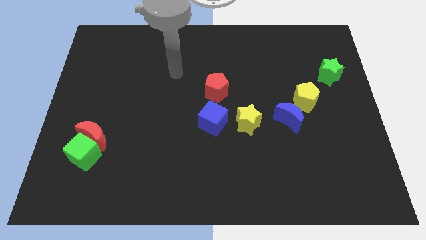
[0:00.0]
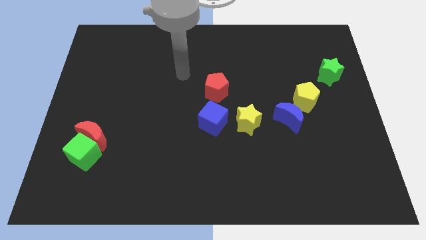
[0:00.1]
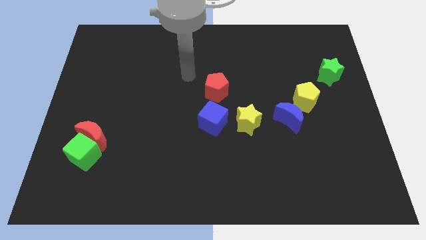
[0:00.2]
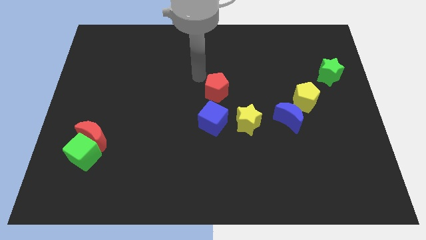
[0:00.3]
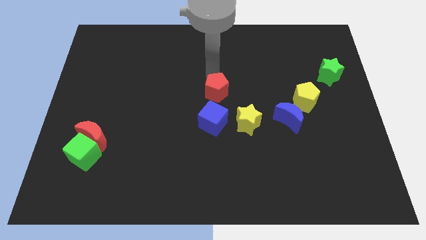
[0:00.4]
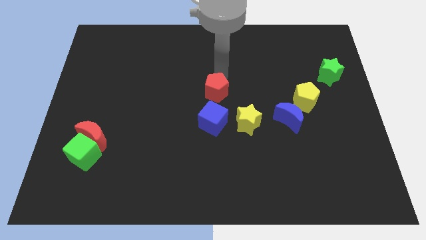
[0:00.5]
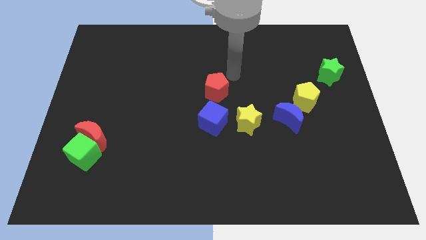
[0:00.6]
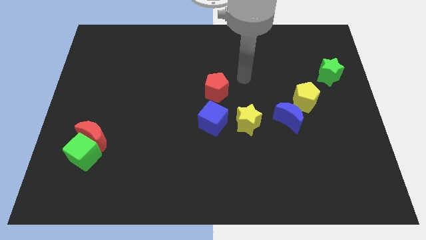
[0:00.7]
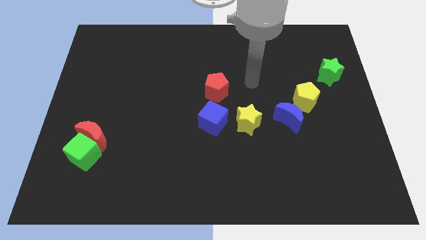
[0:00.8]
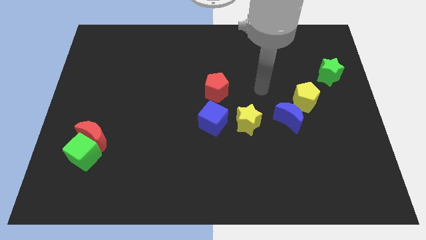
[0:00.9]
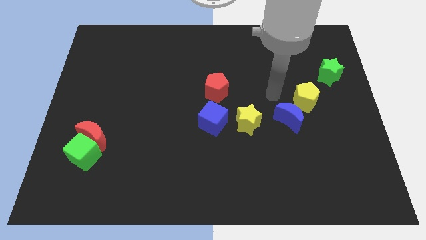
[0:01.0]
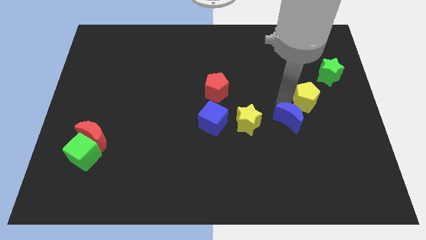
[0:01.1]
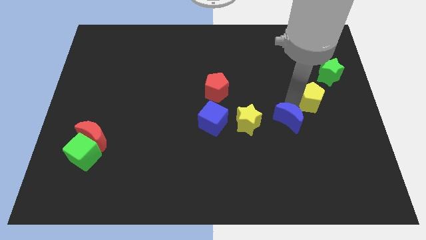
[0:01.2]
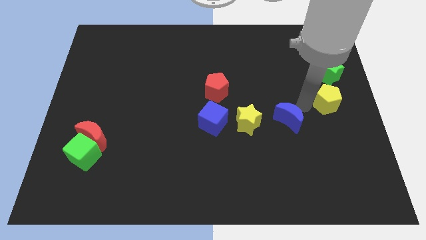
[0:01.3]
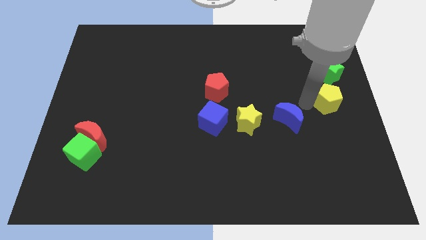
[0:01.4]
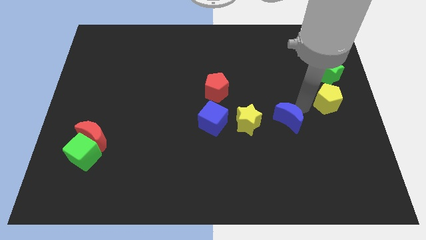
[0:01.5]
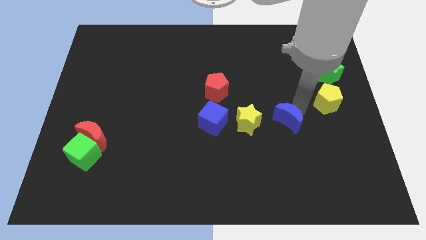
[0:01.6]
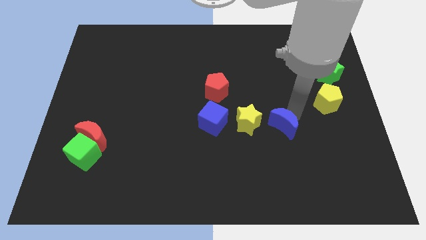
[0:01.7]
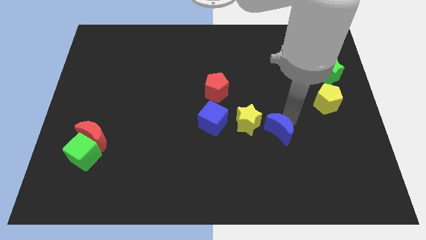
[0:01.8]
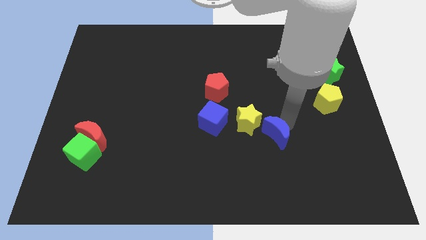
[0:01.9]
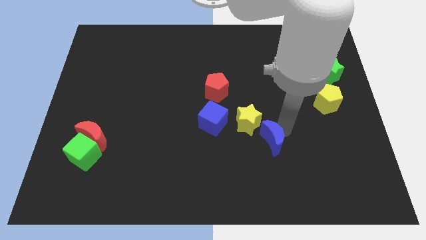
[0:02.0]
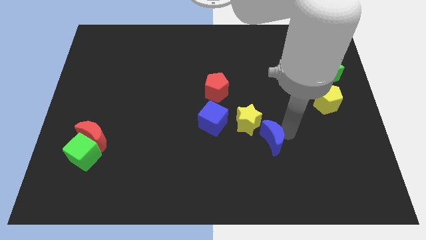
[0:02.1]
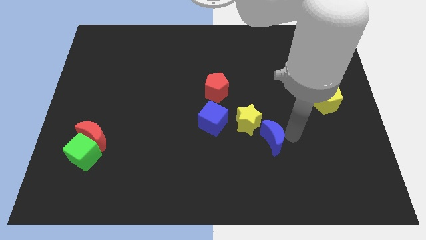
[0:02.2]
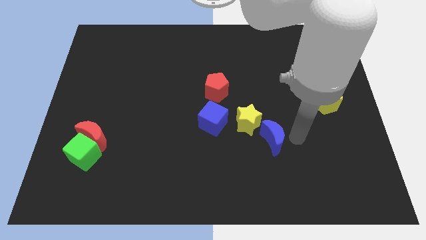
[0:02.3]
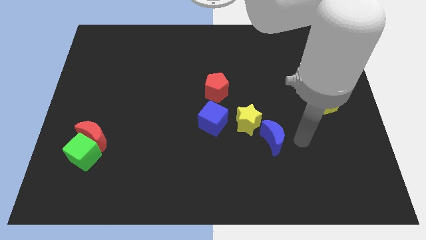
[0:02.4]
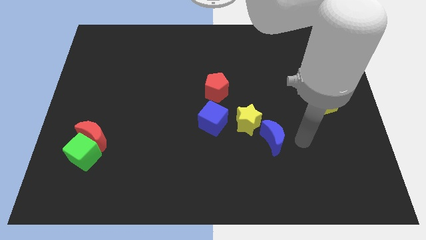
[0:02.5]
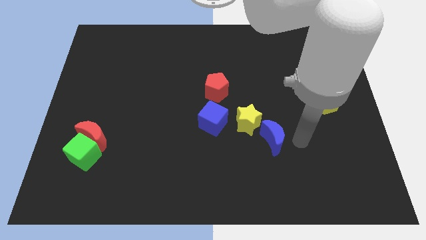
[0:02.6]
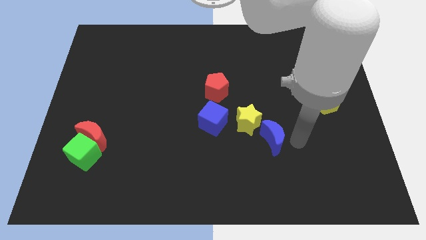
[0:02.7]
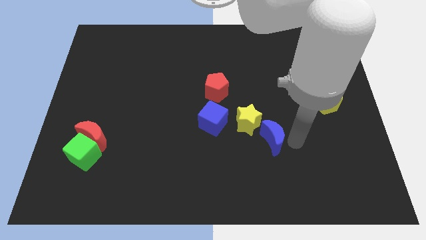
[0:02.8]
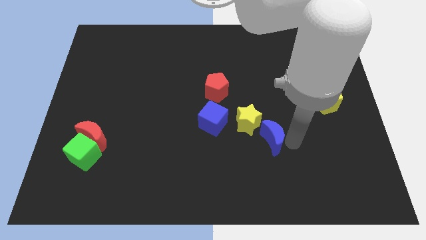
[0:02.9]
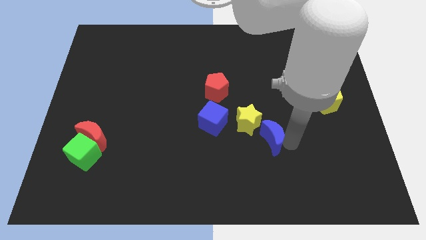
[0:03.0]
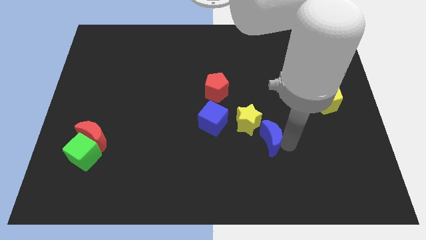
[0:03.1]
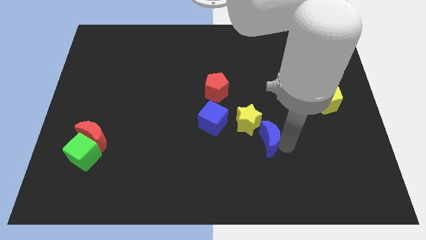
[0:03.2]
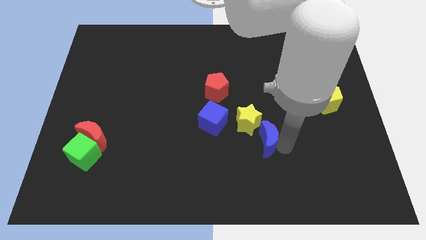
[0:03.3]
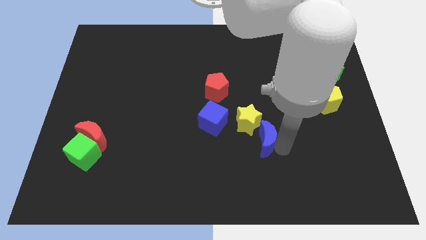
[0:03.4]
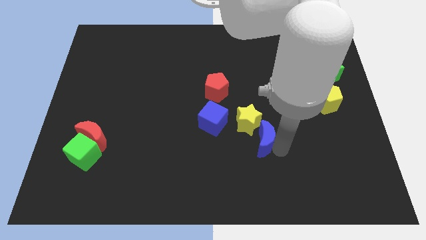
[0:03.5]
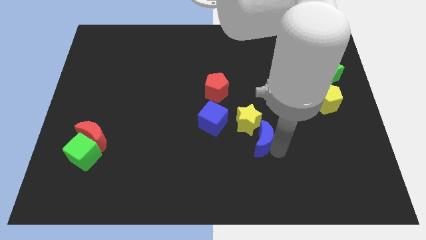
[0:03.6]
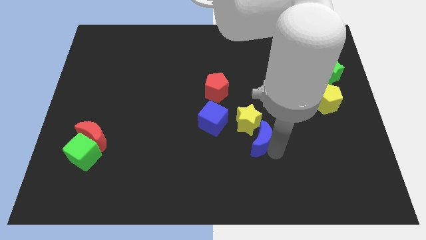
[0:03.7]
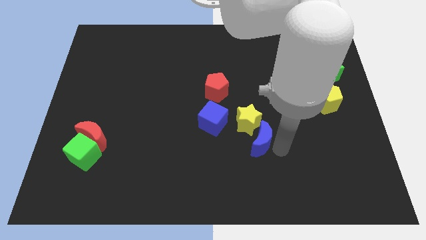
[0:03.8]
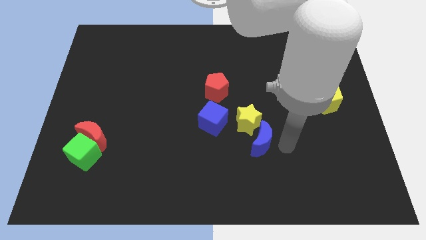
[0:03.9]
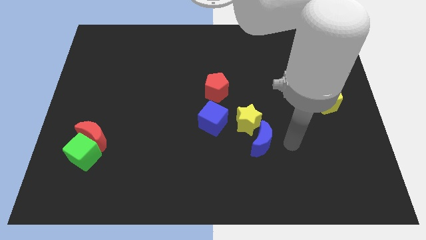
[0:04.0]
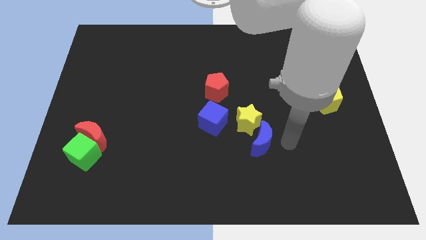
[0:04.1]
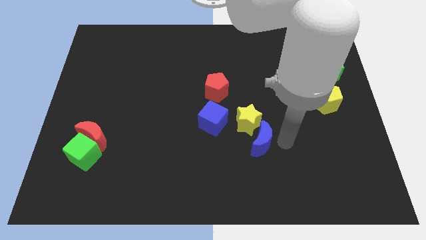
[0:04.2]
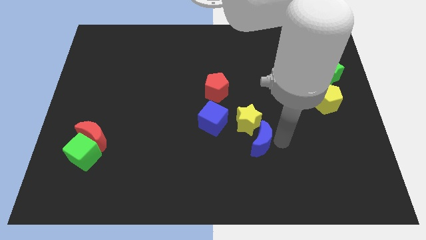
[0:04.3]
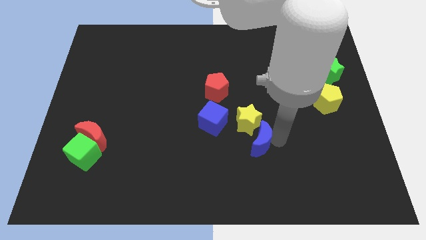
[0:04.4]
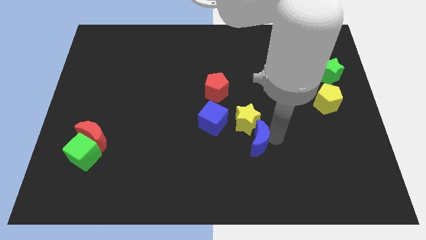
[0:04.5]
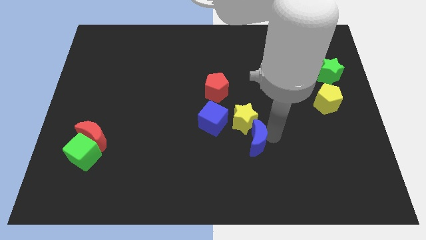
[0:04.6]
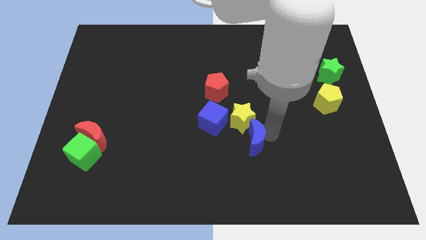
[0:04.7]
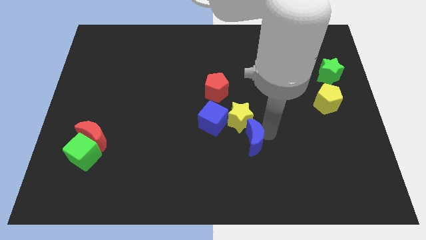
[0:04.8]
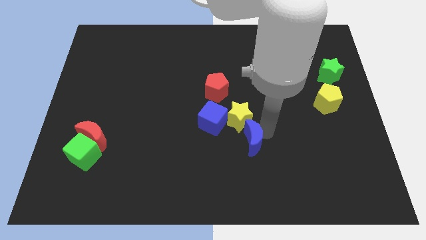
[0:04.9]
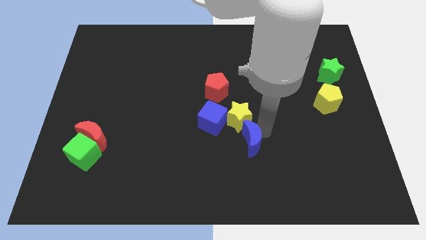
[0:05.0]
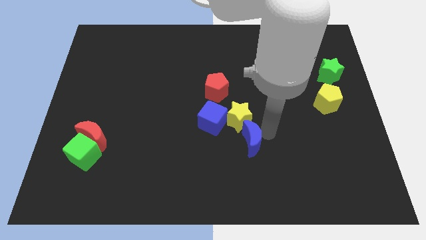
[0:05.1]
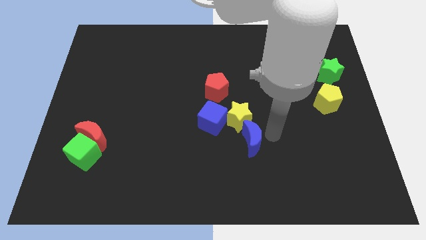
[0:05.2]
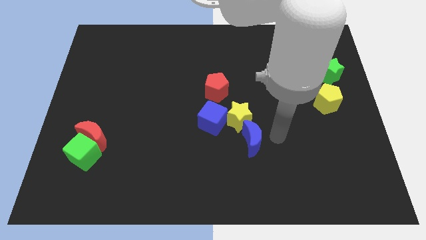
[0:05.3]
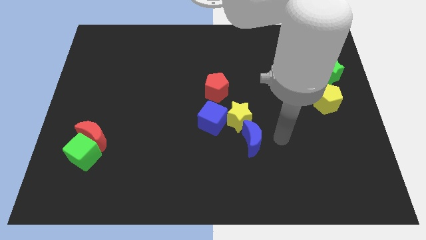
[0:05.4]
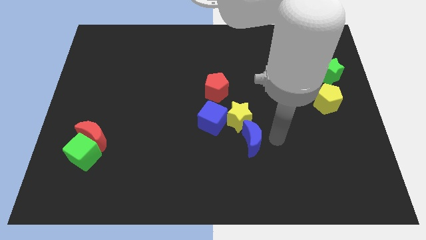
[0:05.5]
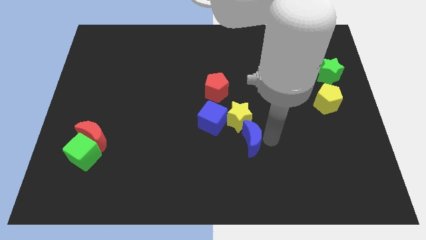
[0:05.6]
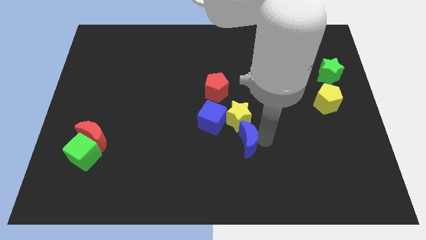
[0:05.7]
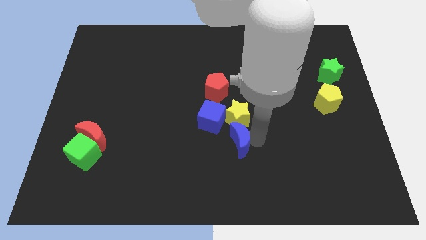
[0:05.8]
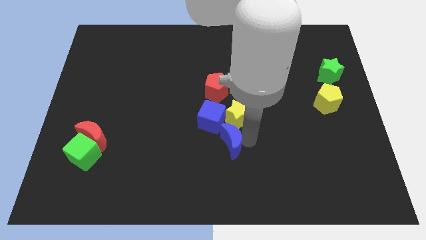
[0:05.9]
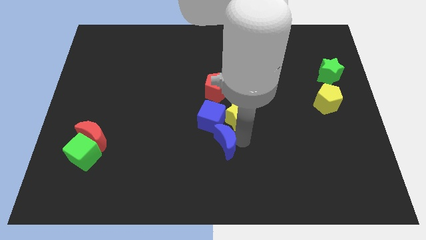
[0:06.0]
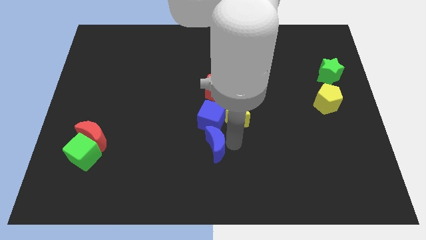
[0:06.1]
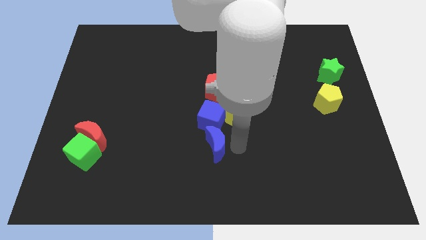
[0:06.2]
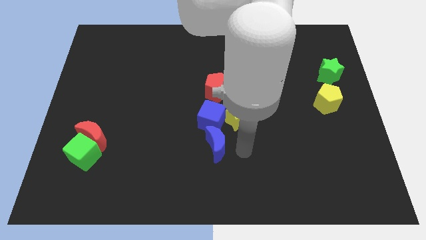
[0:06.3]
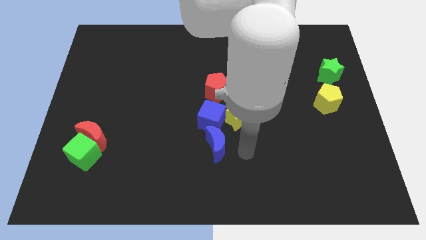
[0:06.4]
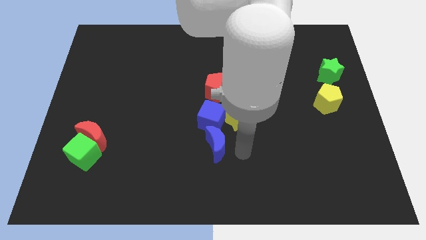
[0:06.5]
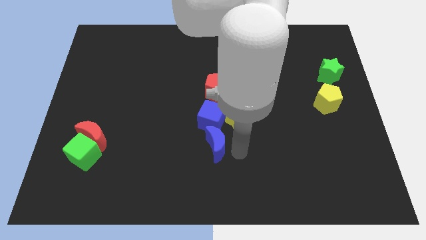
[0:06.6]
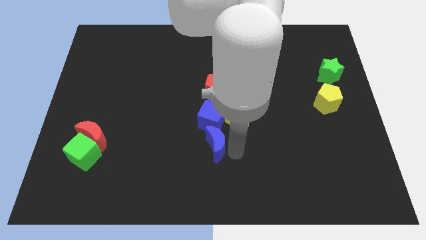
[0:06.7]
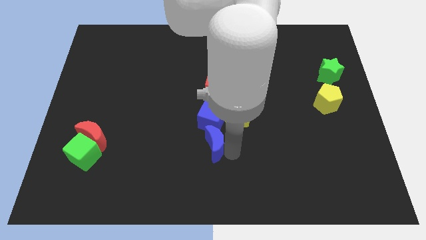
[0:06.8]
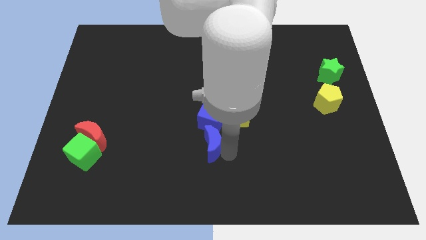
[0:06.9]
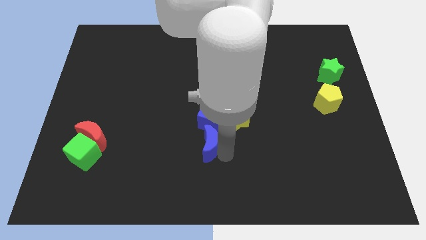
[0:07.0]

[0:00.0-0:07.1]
move the blue moon diagonally down and to the left of the blue cube
